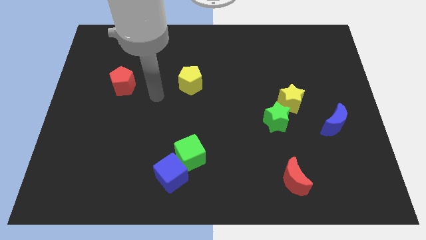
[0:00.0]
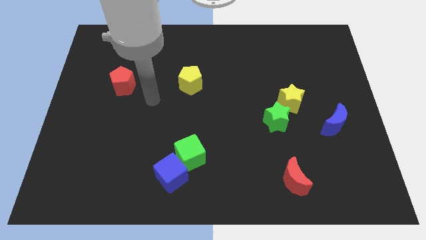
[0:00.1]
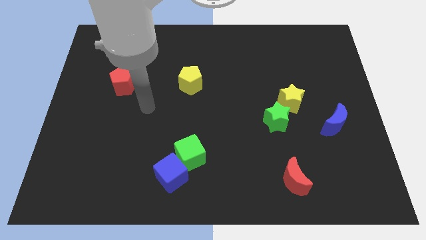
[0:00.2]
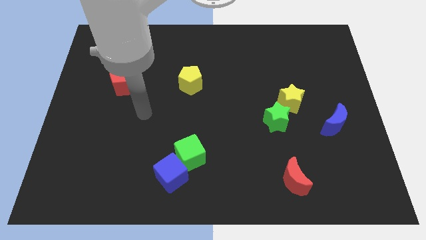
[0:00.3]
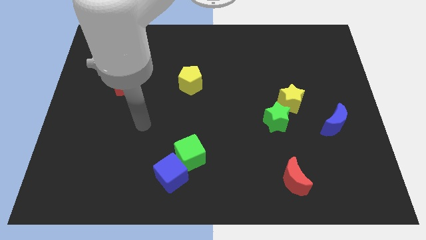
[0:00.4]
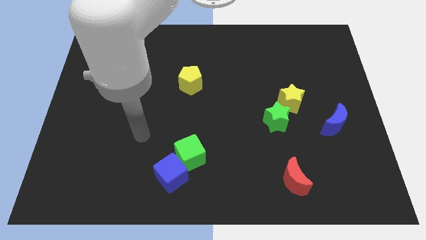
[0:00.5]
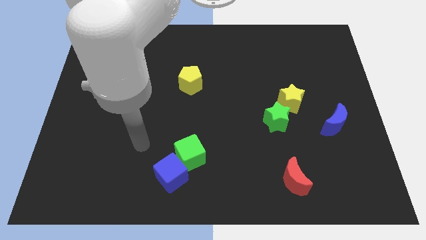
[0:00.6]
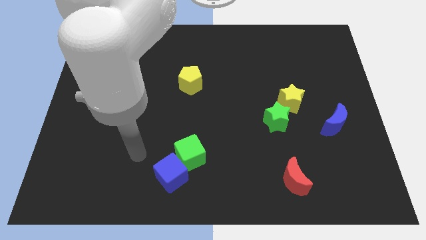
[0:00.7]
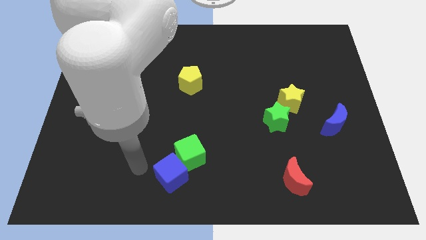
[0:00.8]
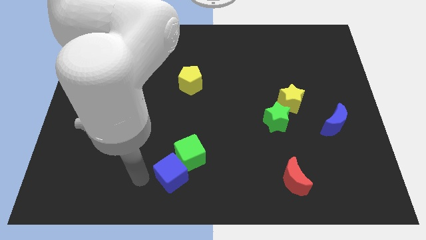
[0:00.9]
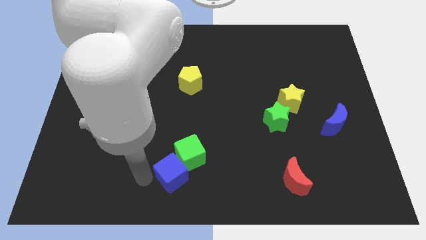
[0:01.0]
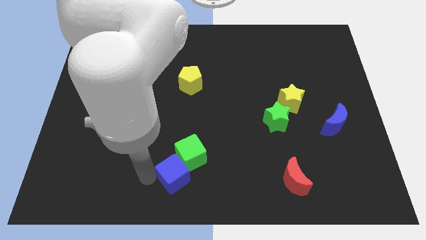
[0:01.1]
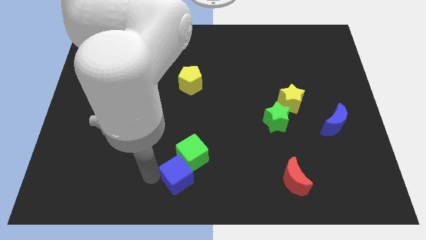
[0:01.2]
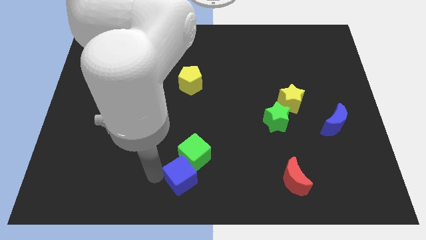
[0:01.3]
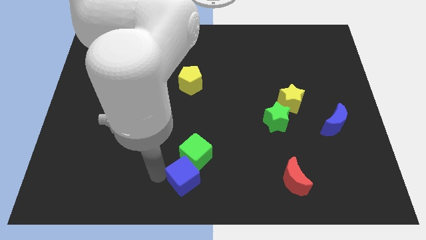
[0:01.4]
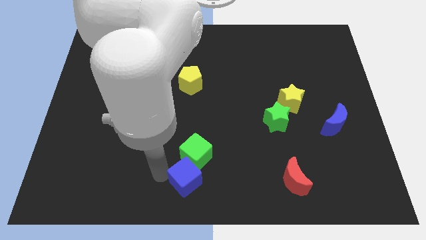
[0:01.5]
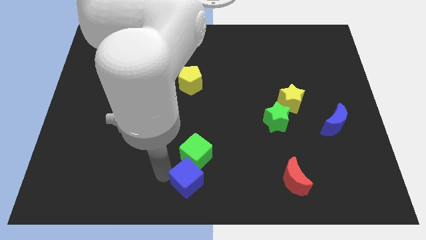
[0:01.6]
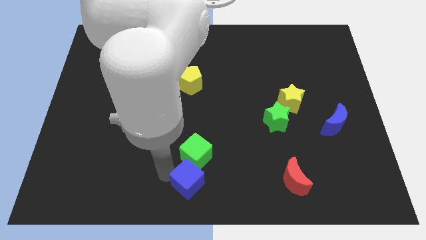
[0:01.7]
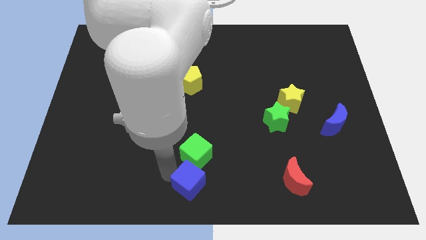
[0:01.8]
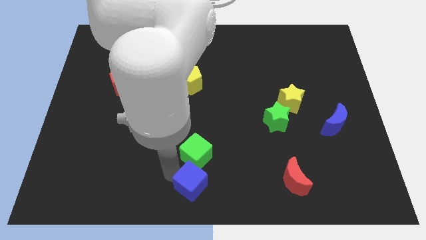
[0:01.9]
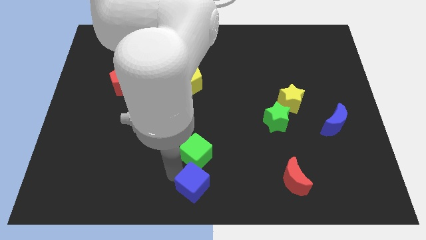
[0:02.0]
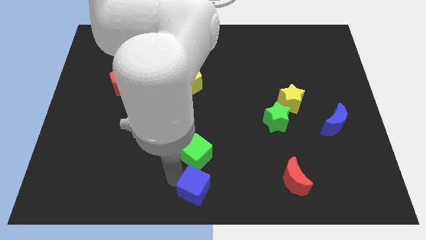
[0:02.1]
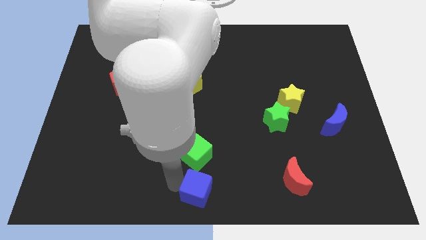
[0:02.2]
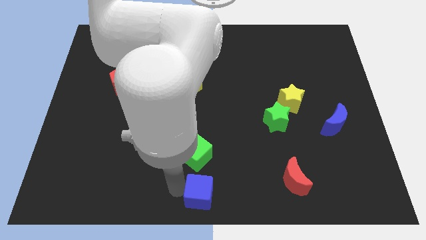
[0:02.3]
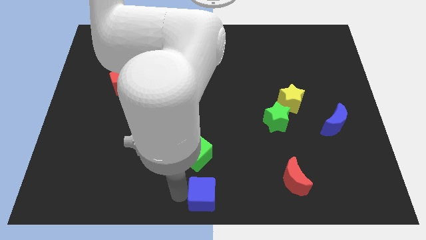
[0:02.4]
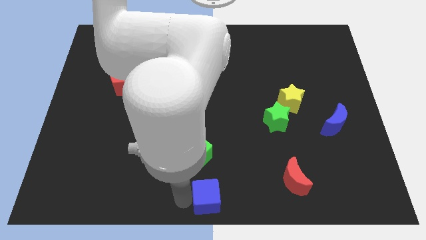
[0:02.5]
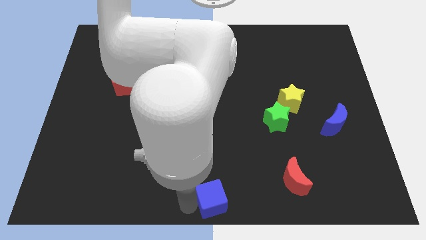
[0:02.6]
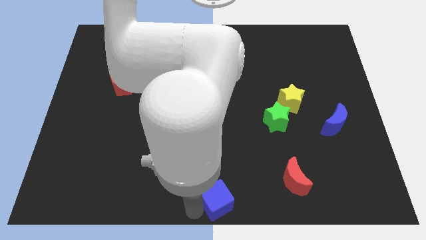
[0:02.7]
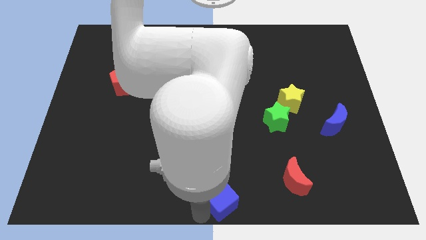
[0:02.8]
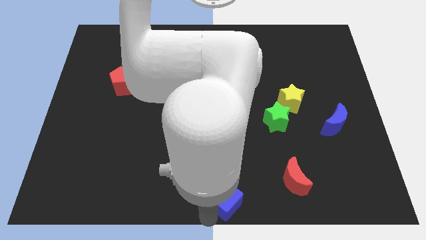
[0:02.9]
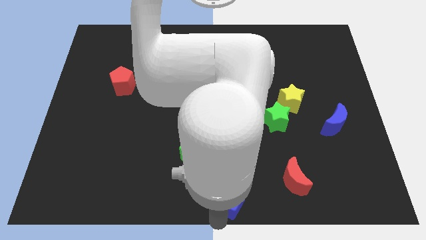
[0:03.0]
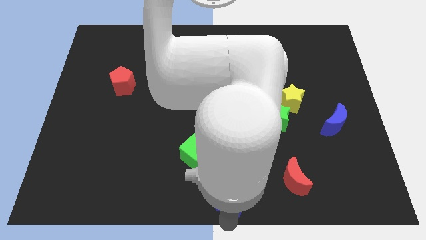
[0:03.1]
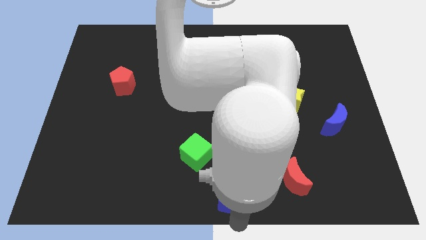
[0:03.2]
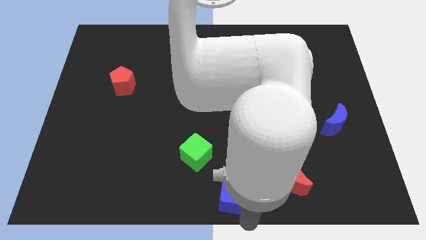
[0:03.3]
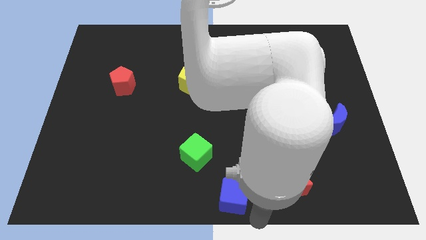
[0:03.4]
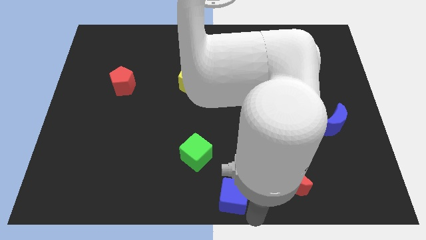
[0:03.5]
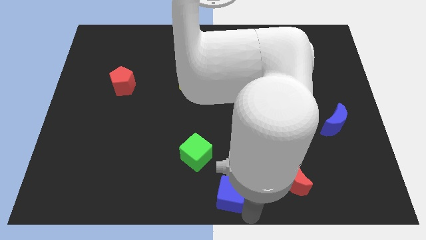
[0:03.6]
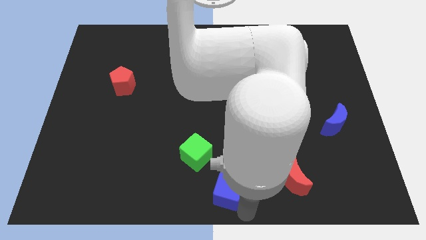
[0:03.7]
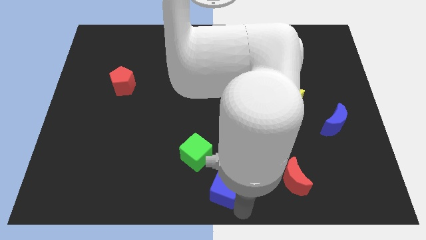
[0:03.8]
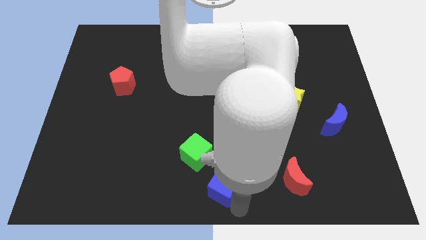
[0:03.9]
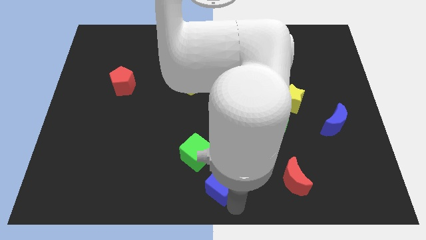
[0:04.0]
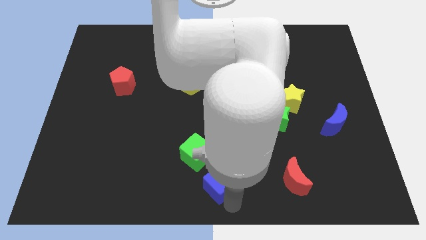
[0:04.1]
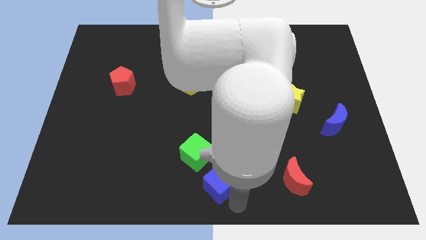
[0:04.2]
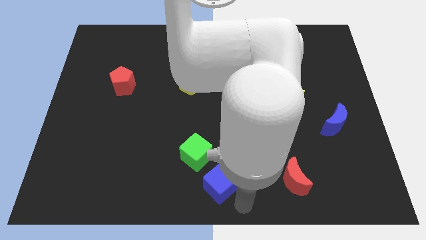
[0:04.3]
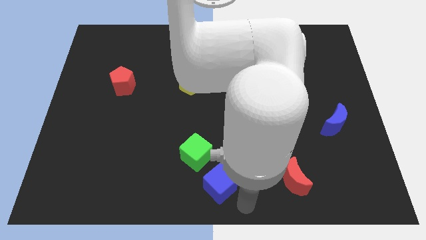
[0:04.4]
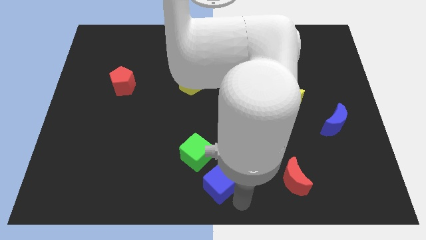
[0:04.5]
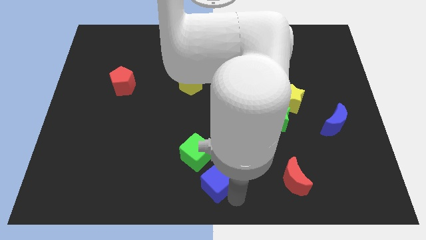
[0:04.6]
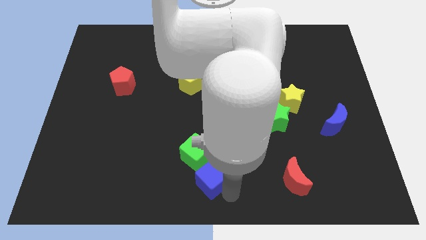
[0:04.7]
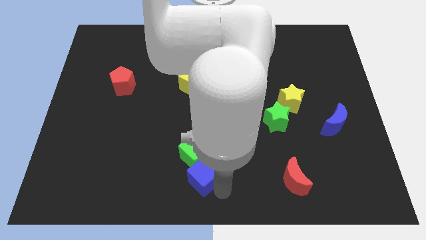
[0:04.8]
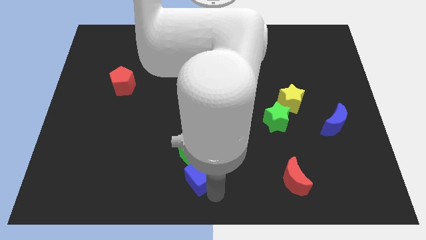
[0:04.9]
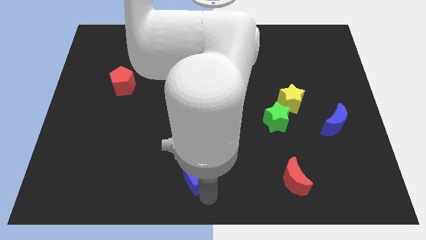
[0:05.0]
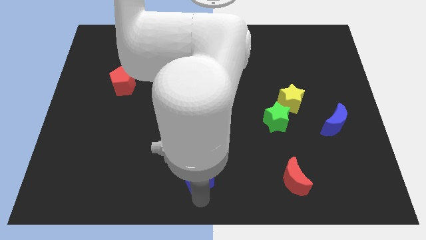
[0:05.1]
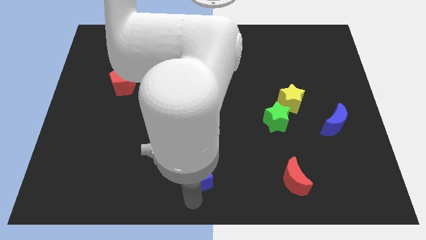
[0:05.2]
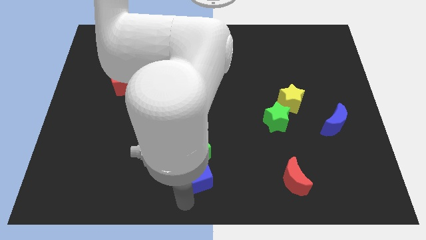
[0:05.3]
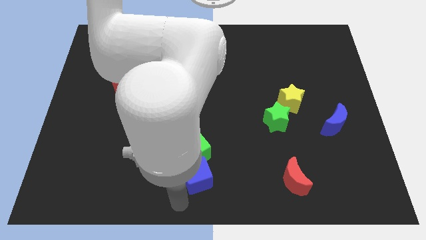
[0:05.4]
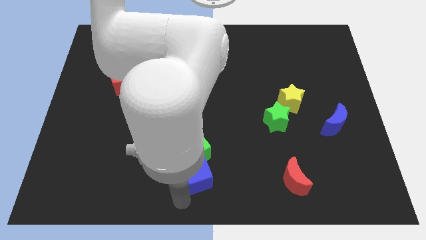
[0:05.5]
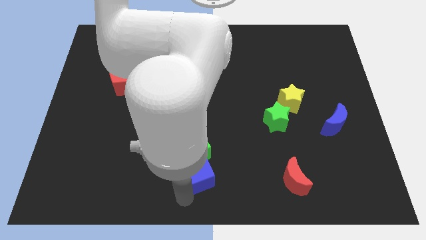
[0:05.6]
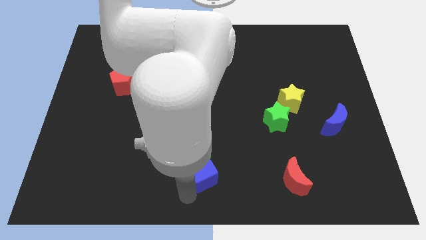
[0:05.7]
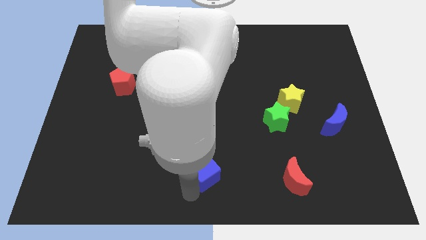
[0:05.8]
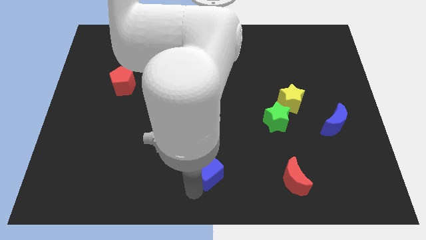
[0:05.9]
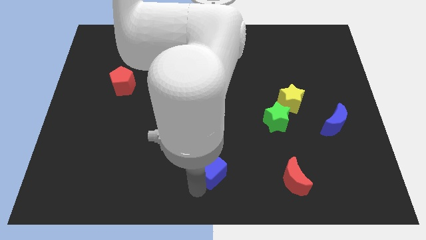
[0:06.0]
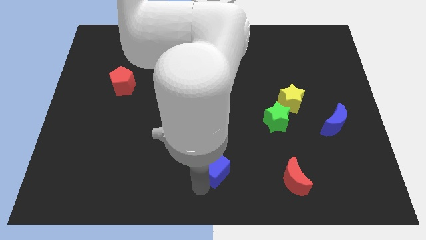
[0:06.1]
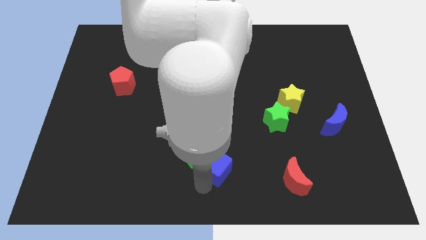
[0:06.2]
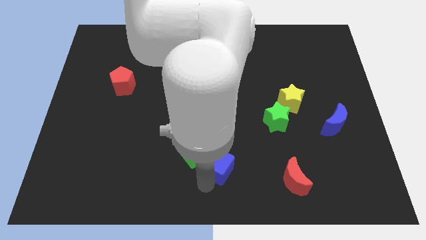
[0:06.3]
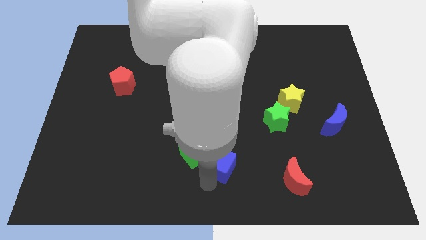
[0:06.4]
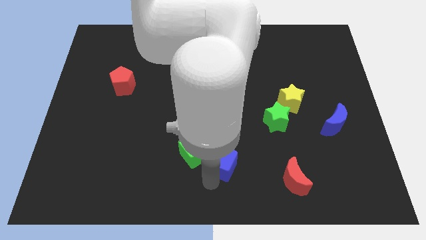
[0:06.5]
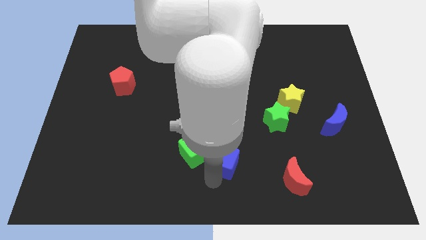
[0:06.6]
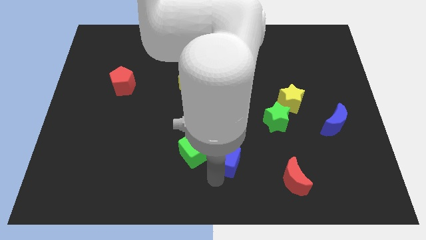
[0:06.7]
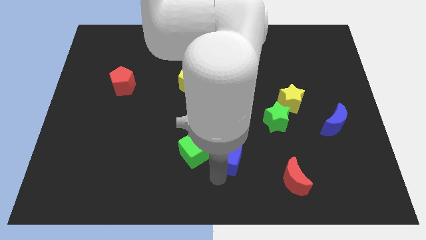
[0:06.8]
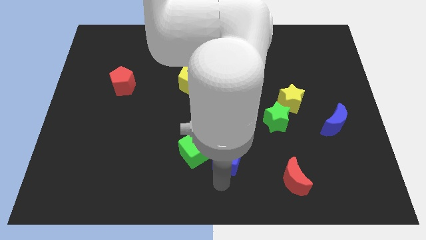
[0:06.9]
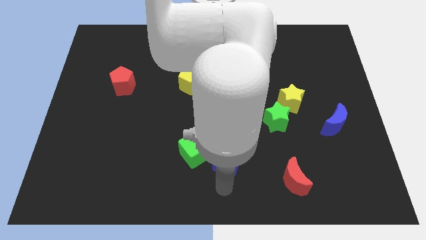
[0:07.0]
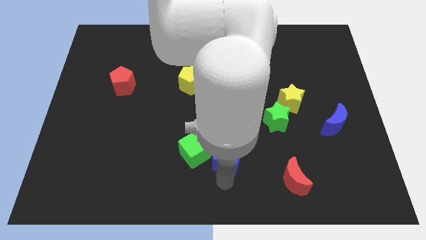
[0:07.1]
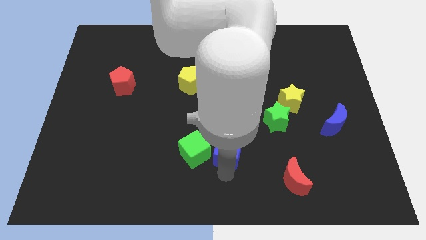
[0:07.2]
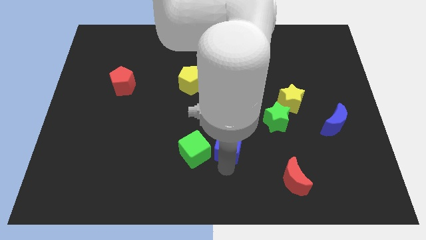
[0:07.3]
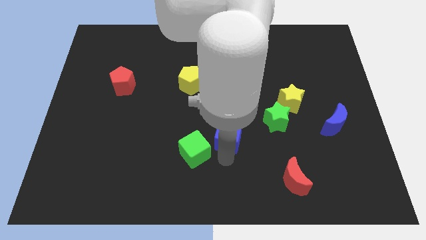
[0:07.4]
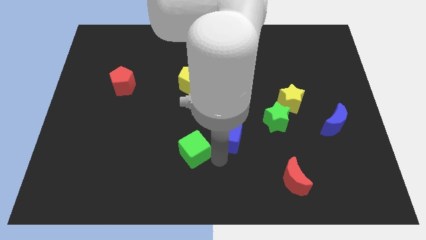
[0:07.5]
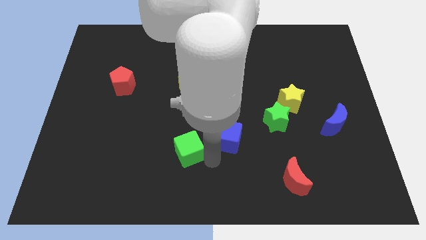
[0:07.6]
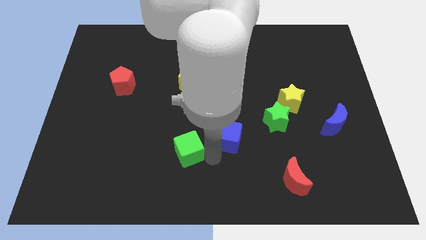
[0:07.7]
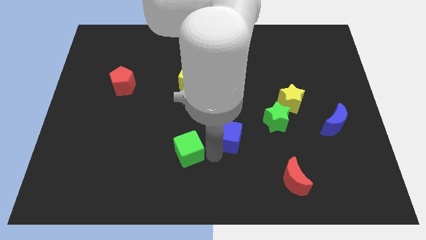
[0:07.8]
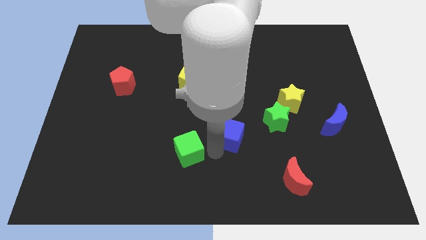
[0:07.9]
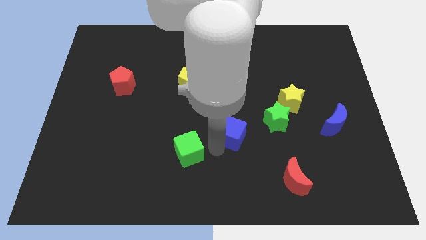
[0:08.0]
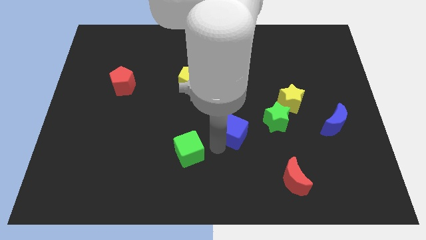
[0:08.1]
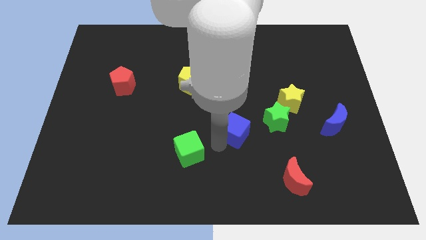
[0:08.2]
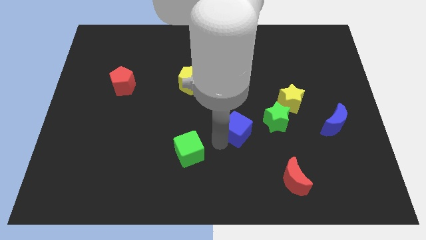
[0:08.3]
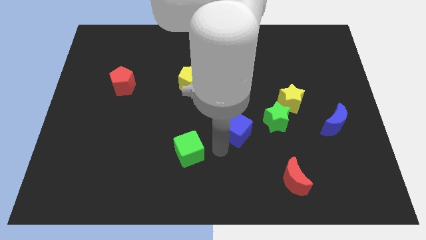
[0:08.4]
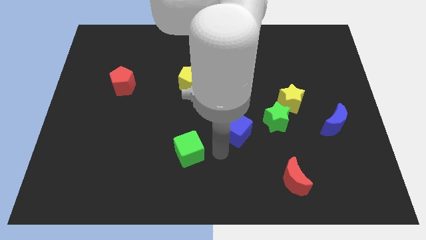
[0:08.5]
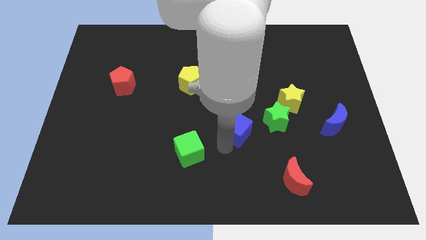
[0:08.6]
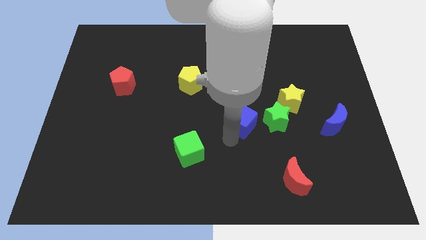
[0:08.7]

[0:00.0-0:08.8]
push the blue cube up and to the right
